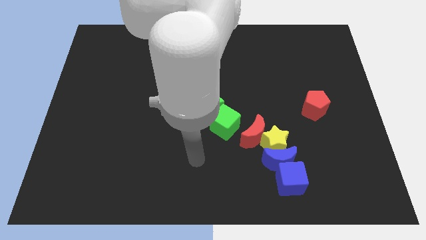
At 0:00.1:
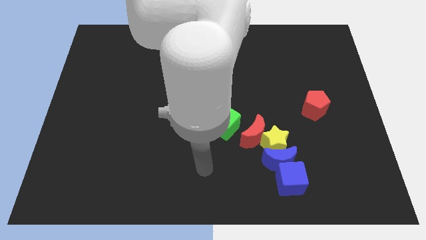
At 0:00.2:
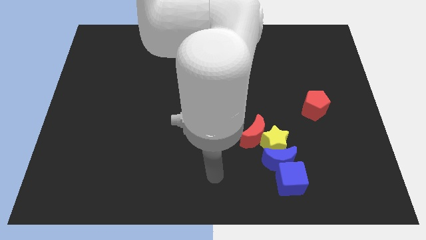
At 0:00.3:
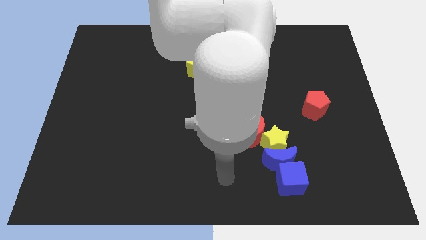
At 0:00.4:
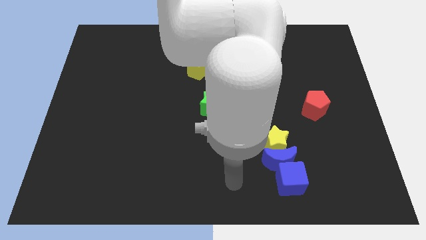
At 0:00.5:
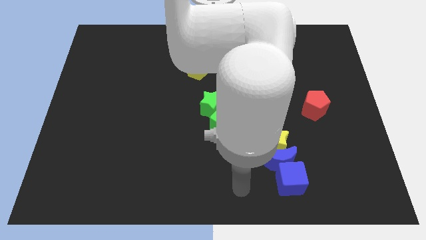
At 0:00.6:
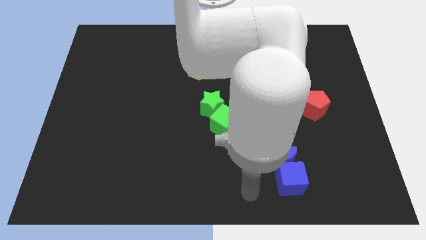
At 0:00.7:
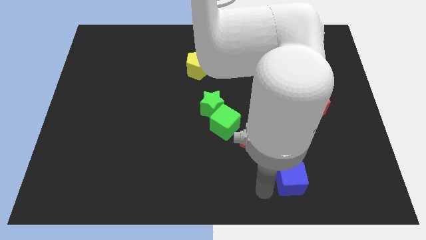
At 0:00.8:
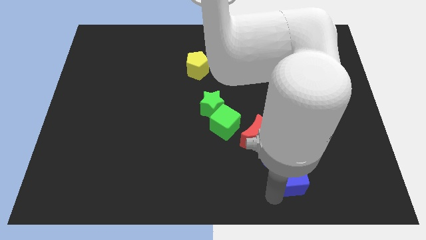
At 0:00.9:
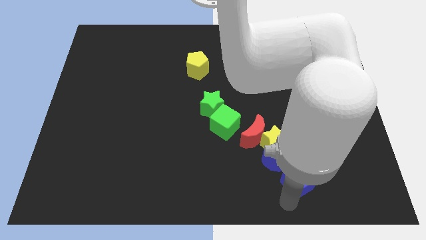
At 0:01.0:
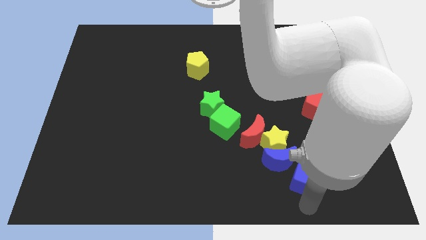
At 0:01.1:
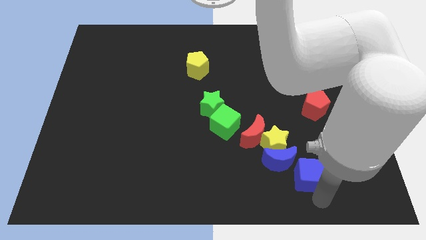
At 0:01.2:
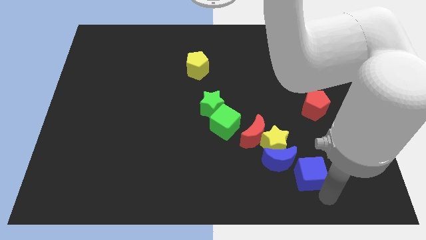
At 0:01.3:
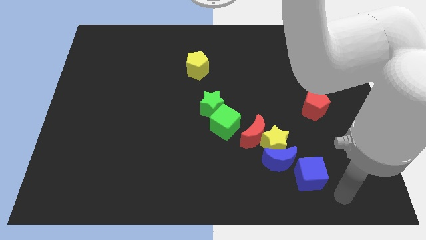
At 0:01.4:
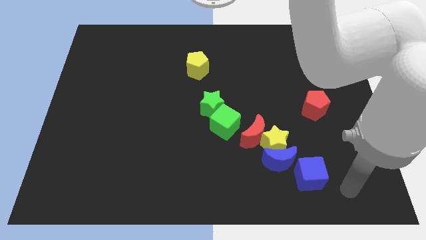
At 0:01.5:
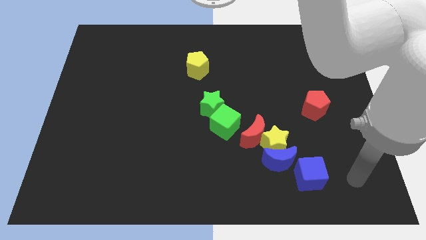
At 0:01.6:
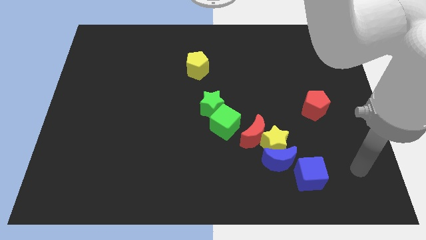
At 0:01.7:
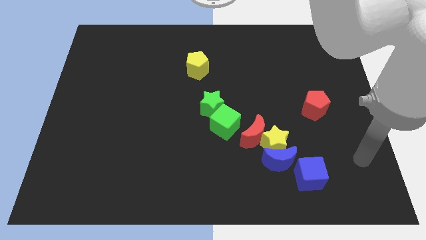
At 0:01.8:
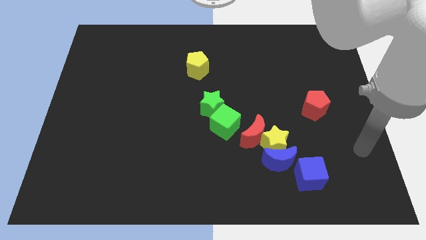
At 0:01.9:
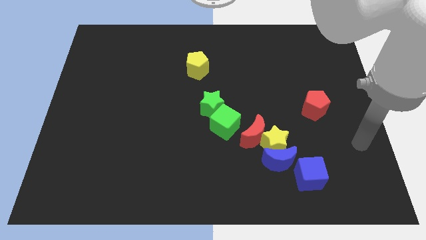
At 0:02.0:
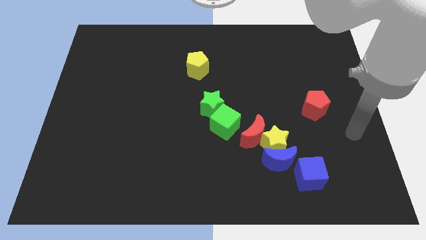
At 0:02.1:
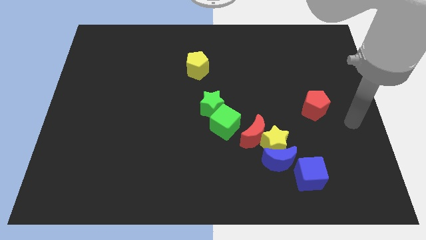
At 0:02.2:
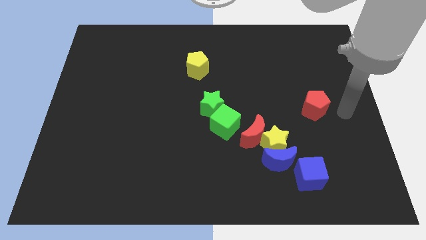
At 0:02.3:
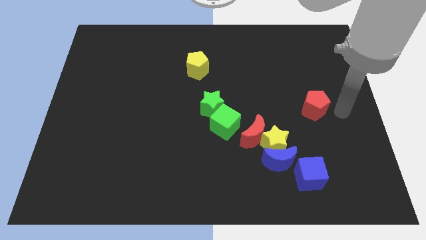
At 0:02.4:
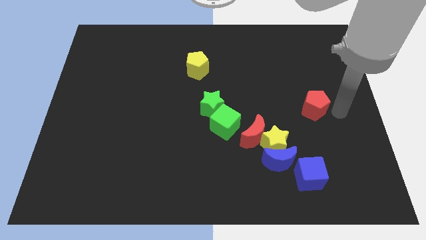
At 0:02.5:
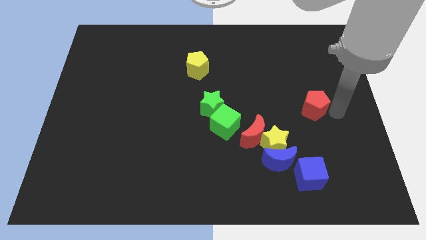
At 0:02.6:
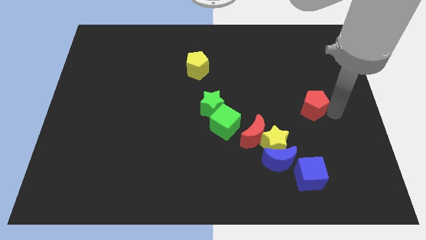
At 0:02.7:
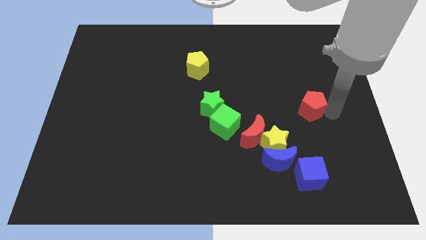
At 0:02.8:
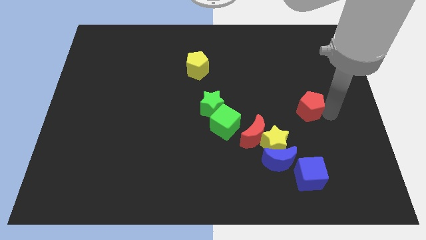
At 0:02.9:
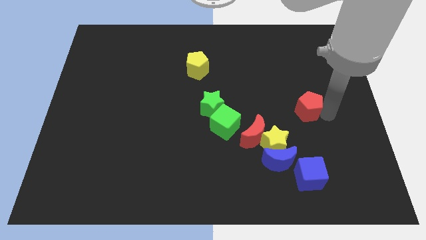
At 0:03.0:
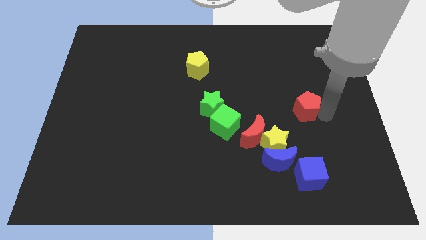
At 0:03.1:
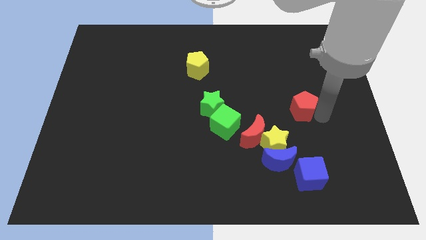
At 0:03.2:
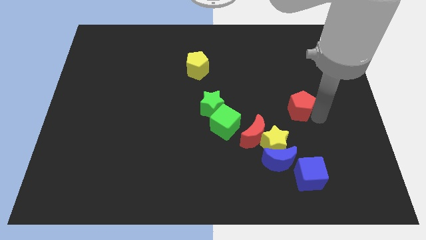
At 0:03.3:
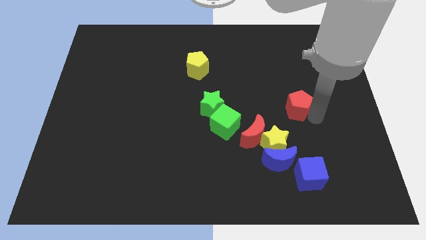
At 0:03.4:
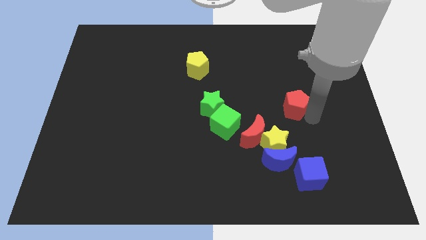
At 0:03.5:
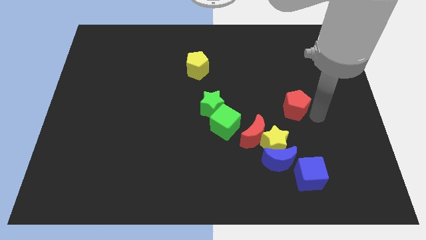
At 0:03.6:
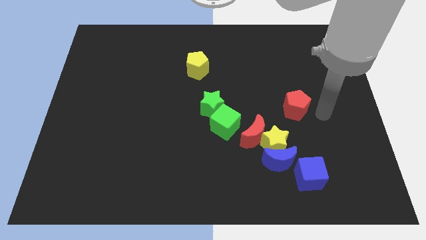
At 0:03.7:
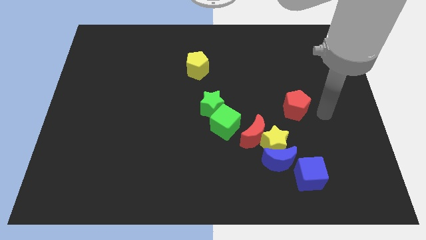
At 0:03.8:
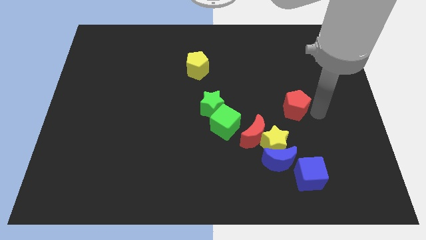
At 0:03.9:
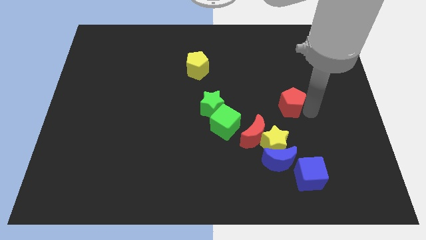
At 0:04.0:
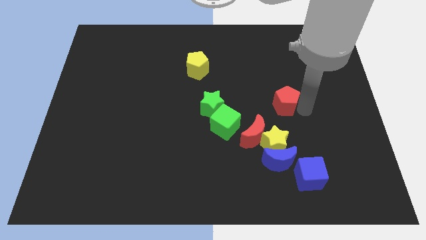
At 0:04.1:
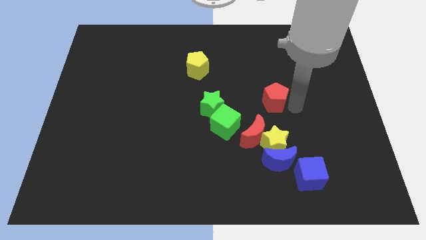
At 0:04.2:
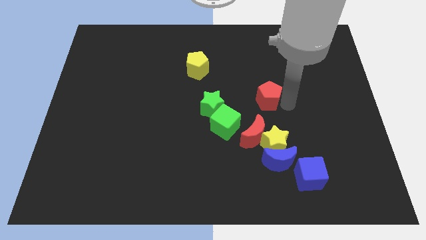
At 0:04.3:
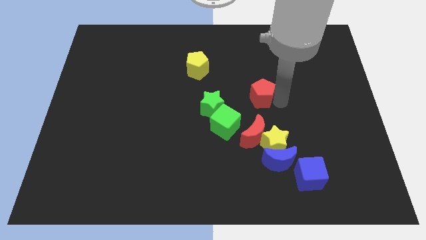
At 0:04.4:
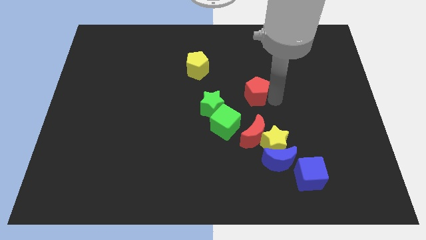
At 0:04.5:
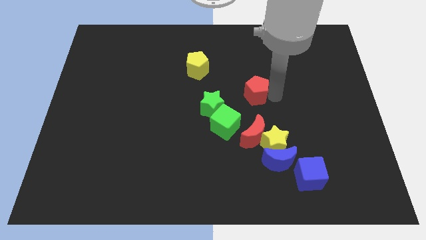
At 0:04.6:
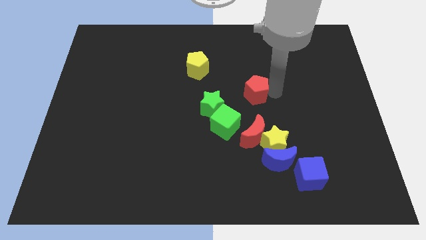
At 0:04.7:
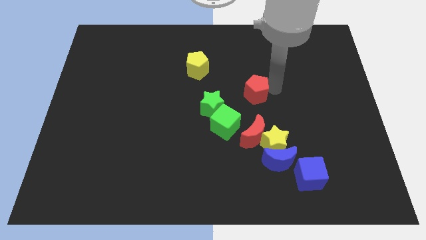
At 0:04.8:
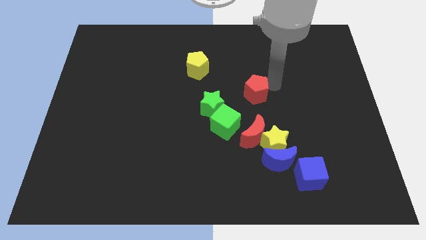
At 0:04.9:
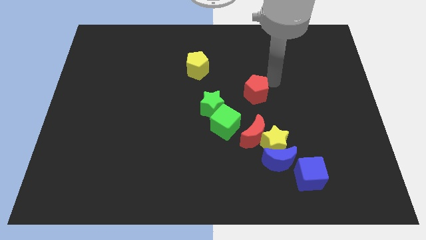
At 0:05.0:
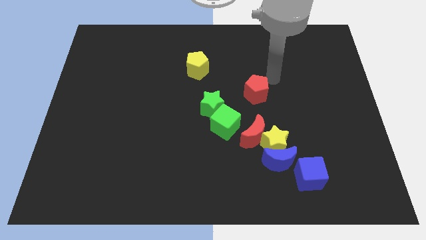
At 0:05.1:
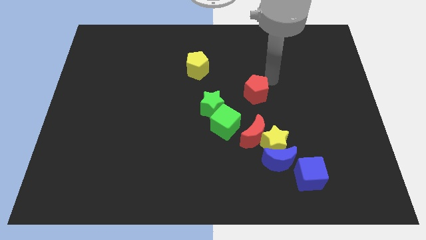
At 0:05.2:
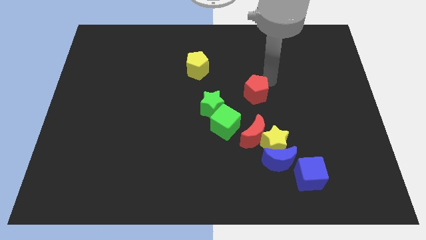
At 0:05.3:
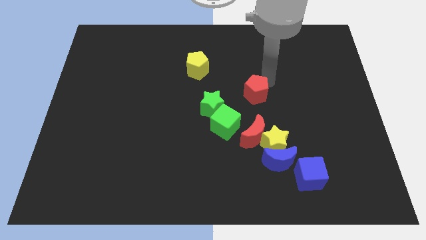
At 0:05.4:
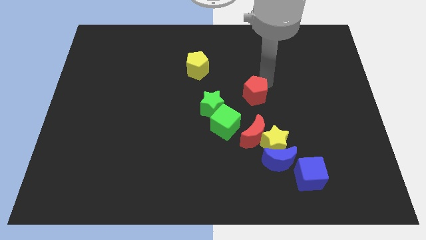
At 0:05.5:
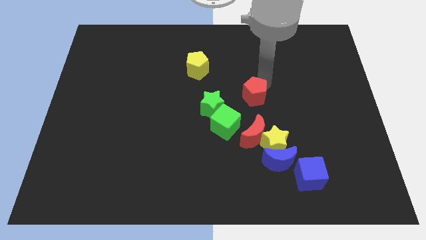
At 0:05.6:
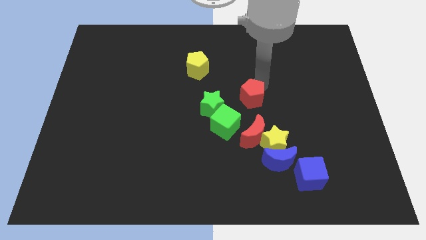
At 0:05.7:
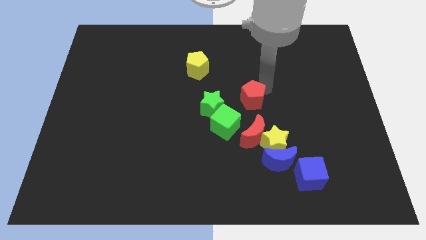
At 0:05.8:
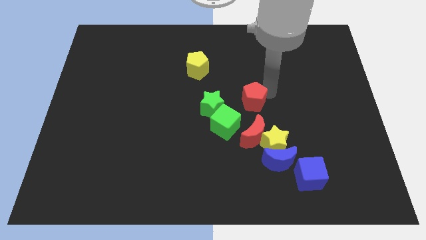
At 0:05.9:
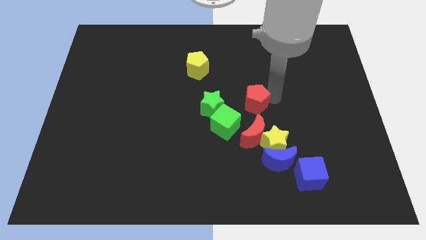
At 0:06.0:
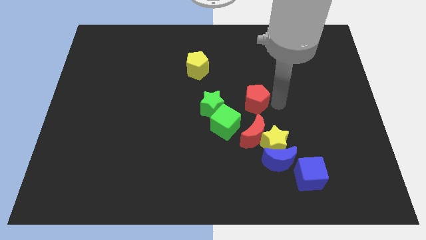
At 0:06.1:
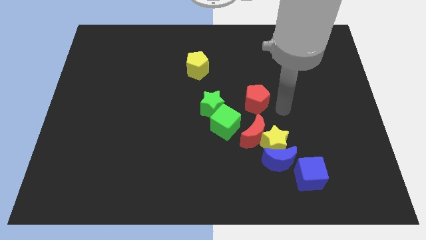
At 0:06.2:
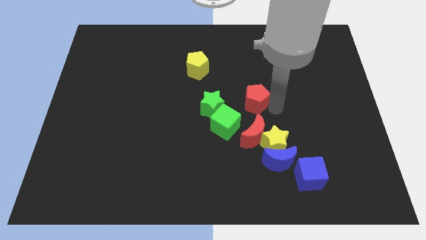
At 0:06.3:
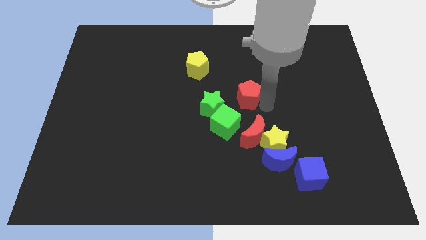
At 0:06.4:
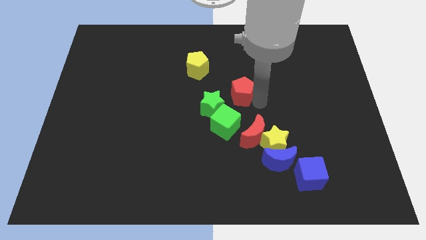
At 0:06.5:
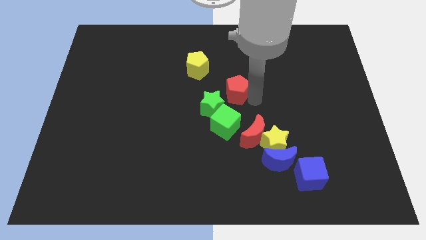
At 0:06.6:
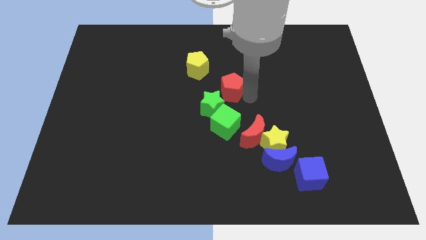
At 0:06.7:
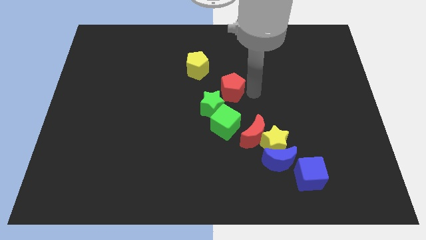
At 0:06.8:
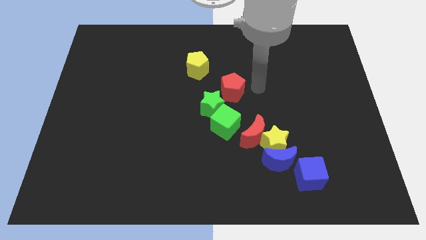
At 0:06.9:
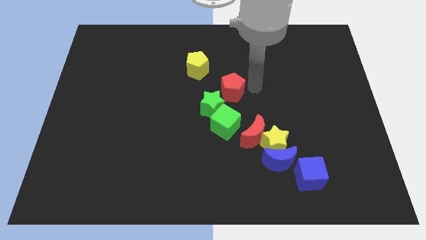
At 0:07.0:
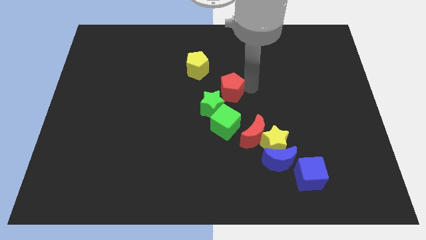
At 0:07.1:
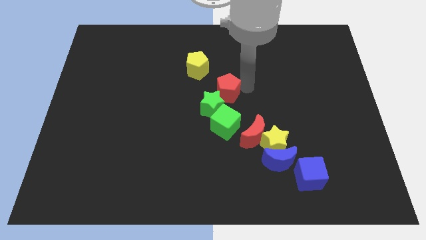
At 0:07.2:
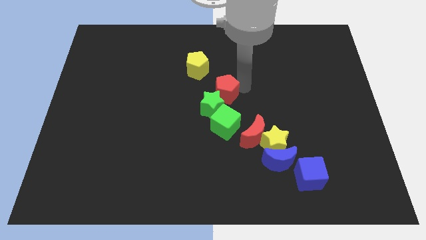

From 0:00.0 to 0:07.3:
slide the red pentagon to the left

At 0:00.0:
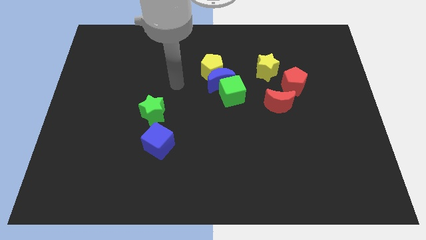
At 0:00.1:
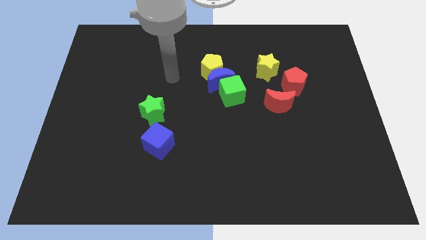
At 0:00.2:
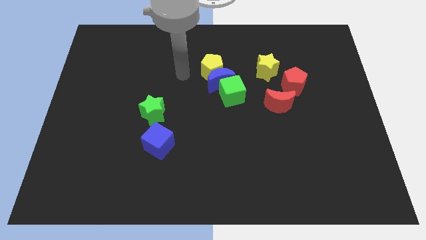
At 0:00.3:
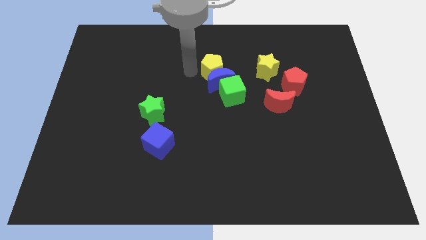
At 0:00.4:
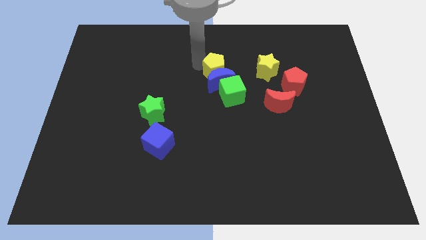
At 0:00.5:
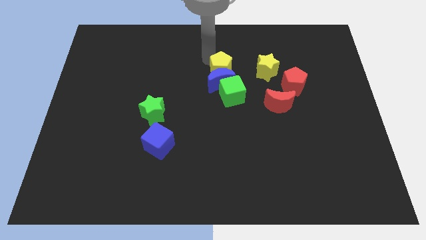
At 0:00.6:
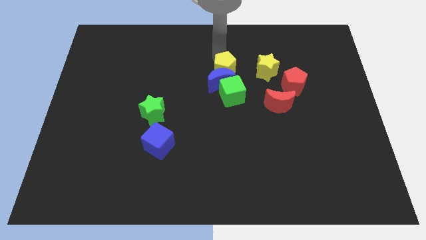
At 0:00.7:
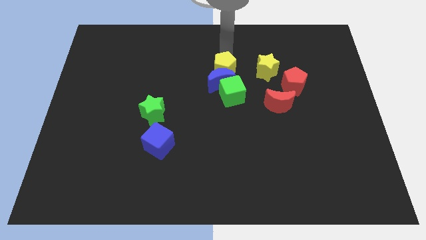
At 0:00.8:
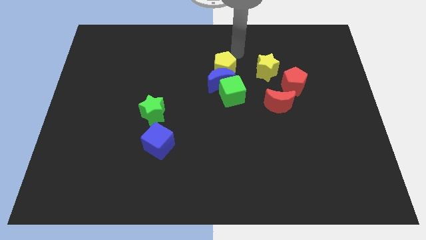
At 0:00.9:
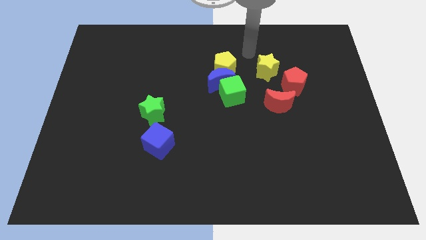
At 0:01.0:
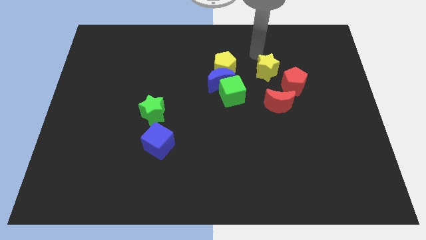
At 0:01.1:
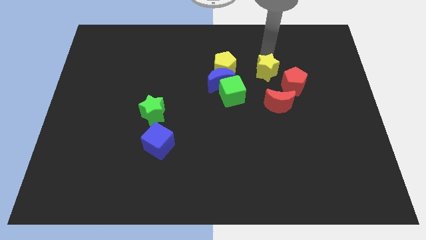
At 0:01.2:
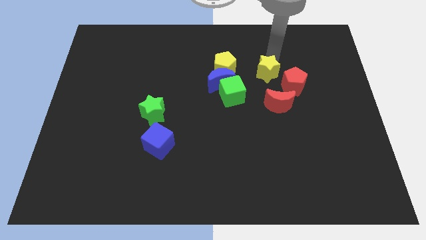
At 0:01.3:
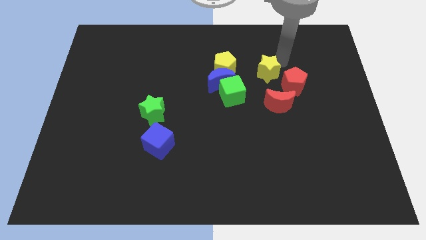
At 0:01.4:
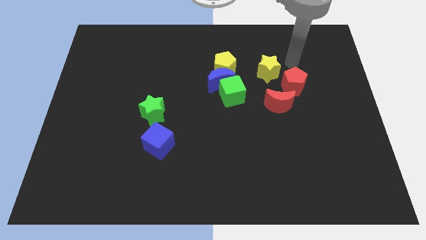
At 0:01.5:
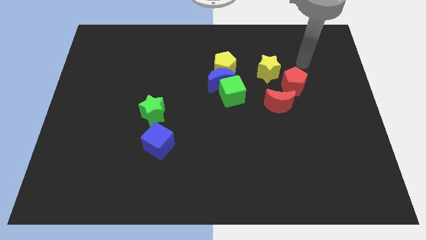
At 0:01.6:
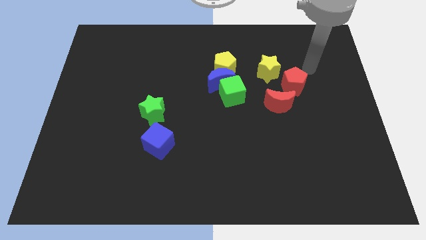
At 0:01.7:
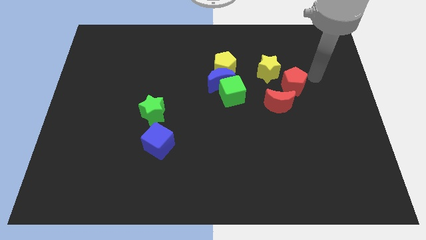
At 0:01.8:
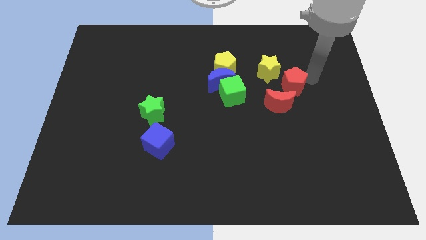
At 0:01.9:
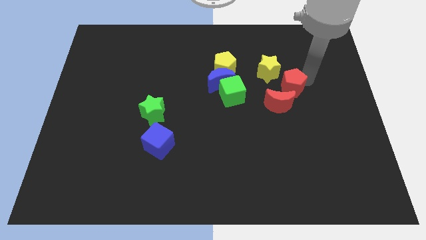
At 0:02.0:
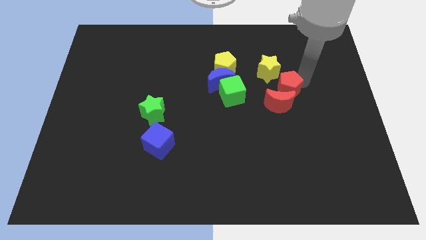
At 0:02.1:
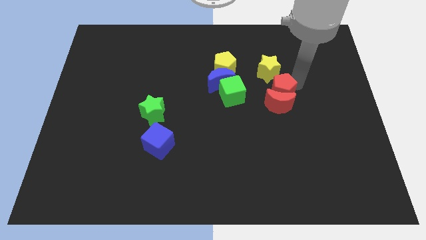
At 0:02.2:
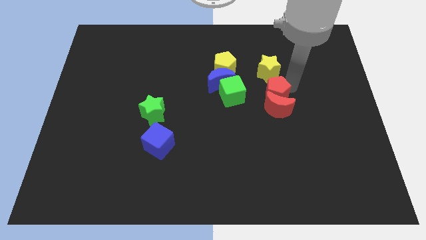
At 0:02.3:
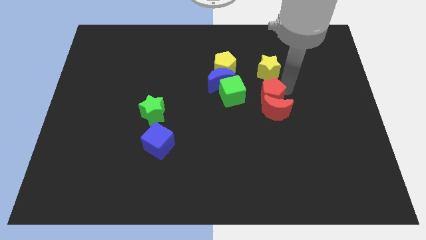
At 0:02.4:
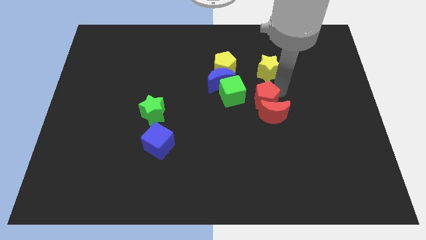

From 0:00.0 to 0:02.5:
slide the red pentagon a bit down and left
